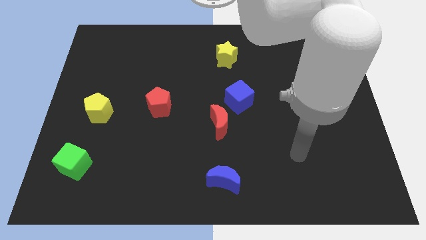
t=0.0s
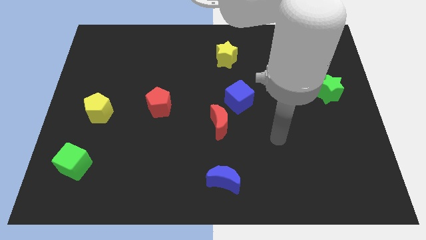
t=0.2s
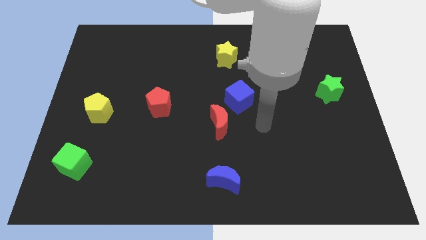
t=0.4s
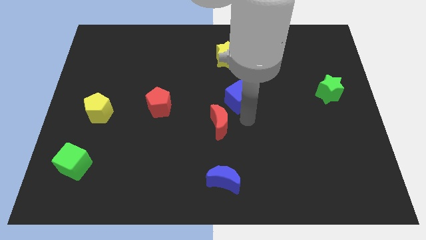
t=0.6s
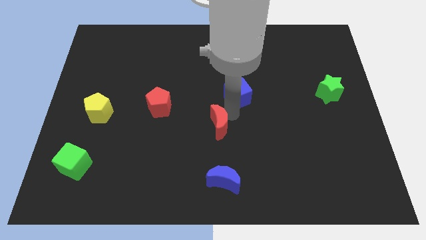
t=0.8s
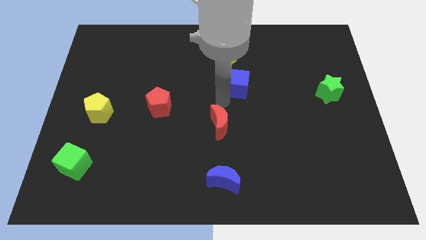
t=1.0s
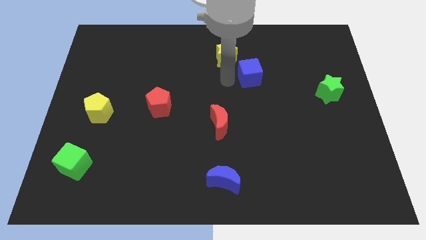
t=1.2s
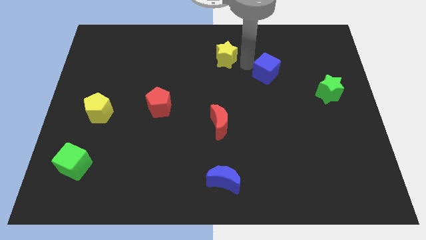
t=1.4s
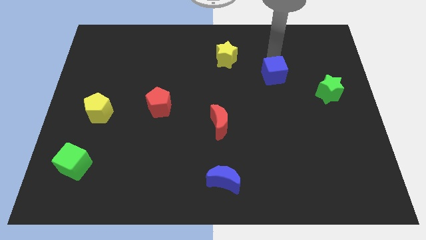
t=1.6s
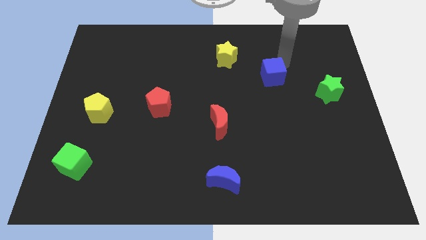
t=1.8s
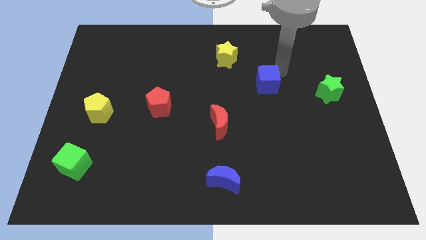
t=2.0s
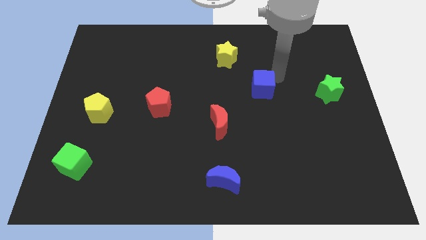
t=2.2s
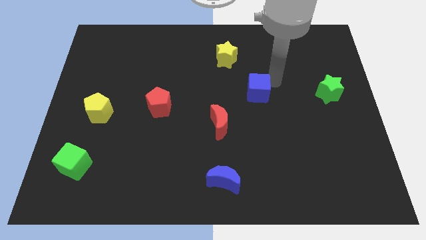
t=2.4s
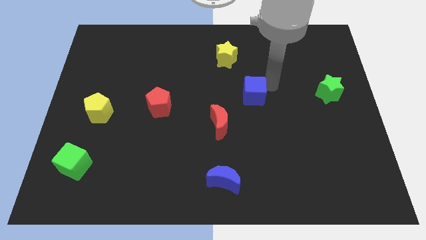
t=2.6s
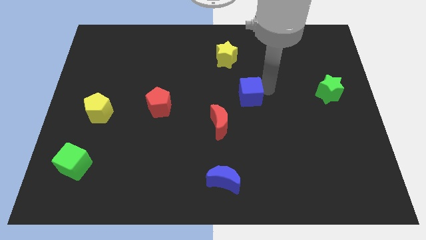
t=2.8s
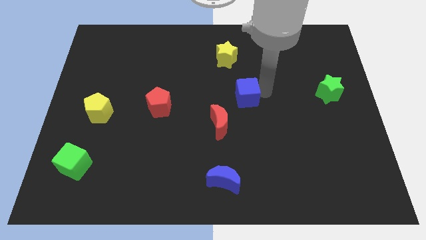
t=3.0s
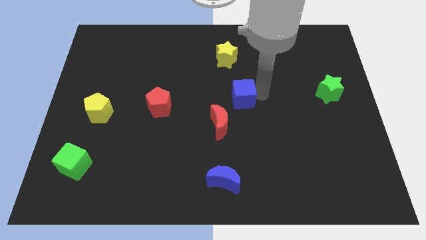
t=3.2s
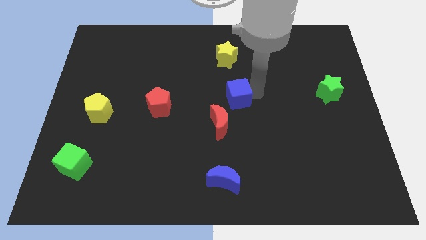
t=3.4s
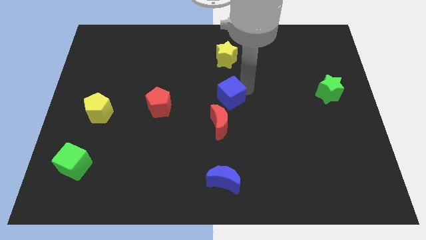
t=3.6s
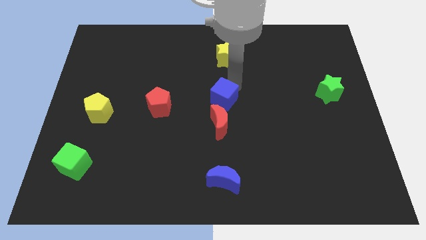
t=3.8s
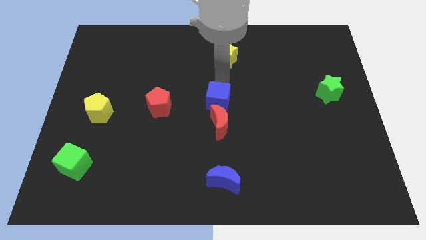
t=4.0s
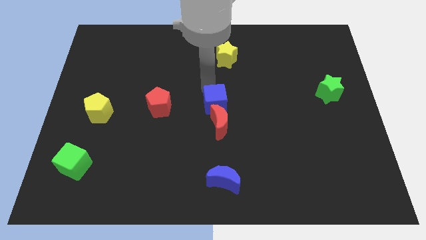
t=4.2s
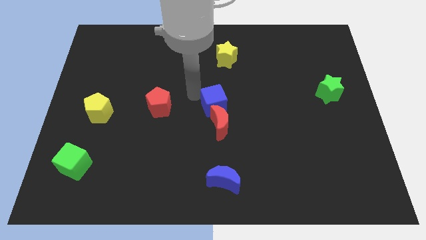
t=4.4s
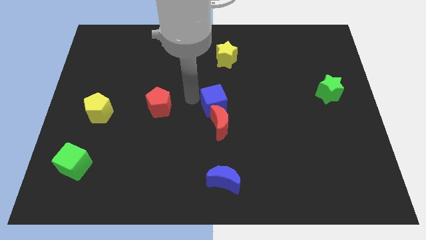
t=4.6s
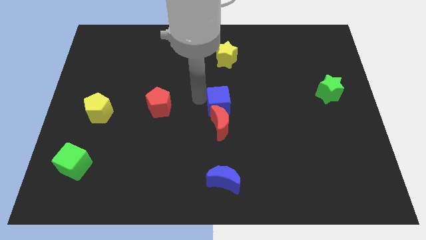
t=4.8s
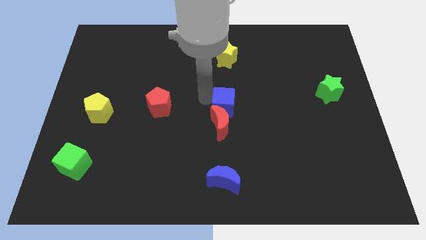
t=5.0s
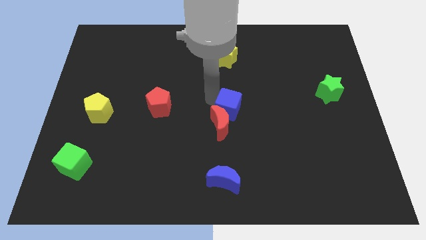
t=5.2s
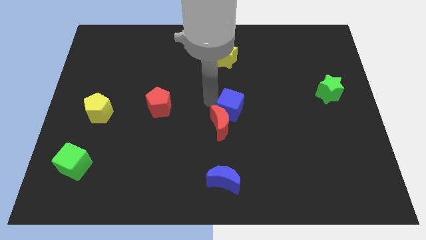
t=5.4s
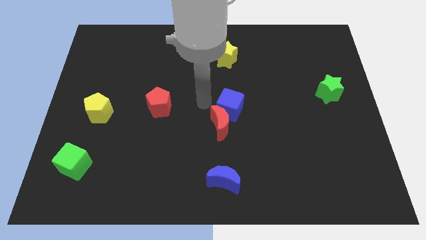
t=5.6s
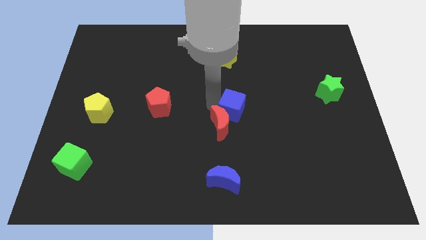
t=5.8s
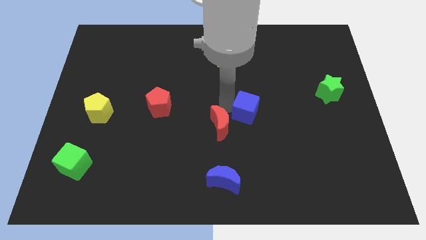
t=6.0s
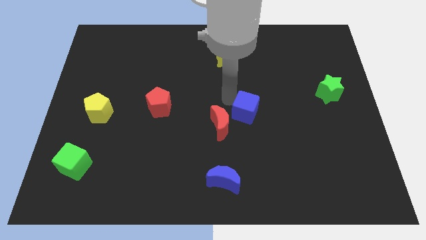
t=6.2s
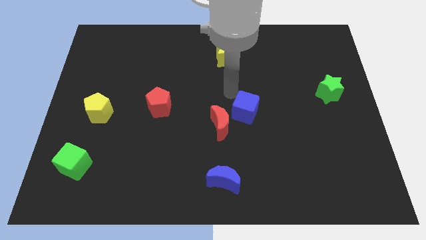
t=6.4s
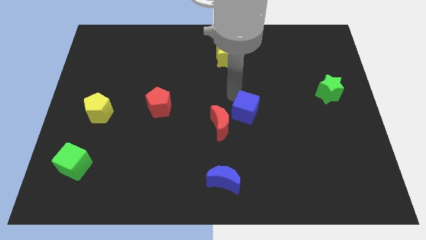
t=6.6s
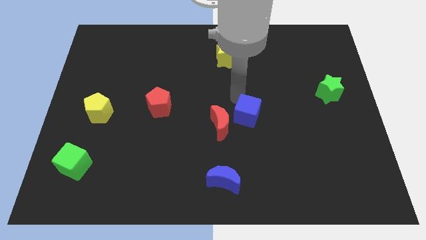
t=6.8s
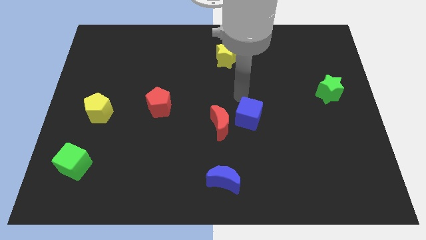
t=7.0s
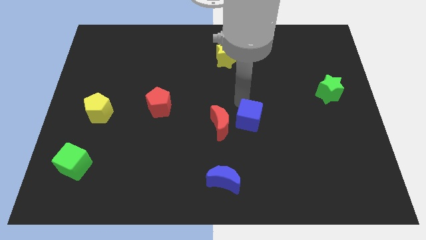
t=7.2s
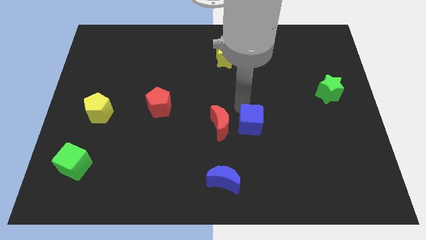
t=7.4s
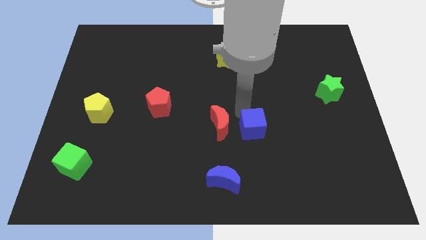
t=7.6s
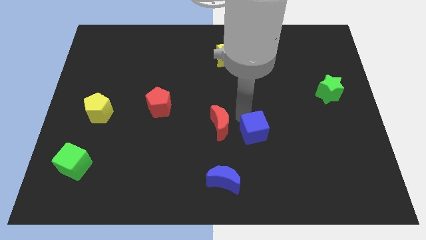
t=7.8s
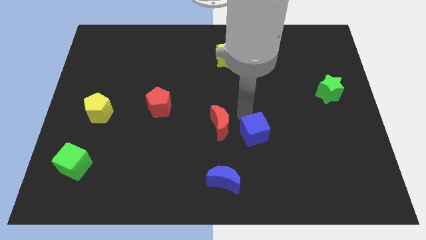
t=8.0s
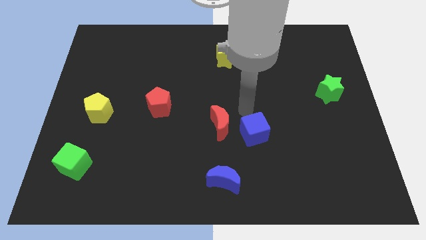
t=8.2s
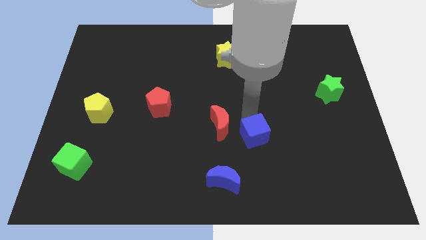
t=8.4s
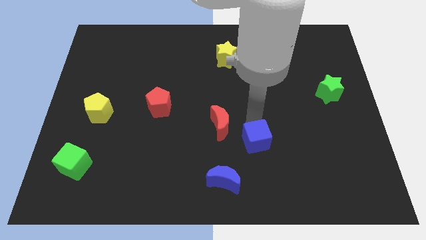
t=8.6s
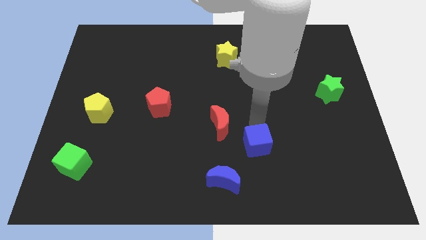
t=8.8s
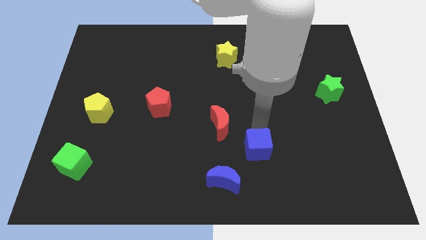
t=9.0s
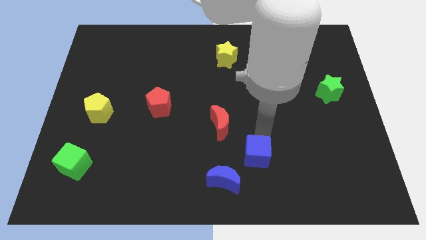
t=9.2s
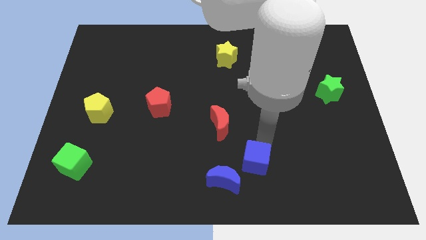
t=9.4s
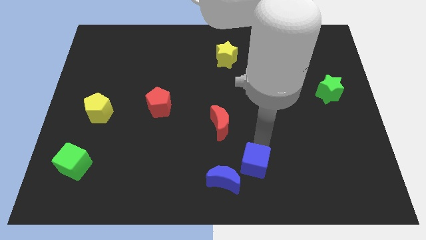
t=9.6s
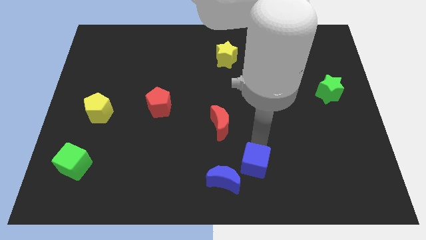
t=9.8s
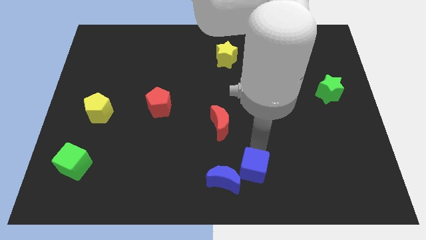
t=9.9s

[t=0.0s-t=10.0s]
put the blue cube to the bottom side

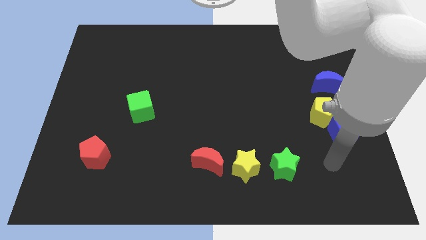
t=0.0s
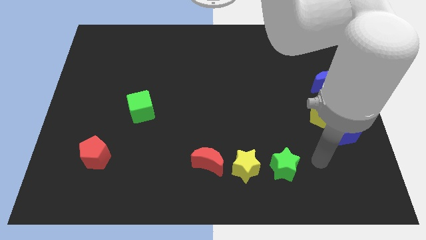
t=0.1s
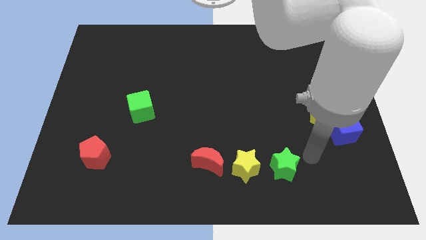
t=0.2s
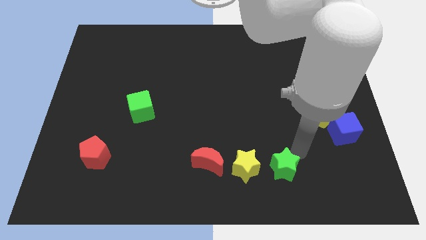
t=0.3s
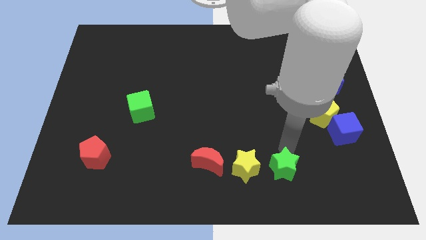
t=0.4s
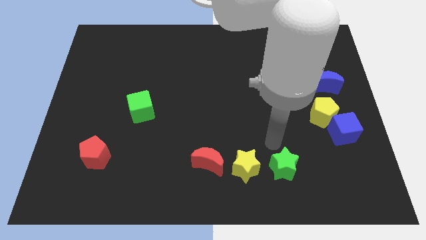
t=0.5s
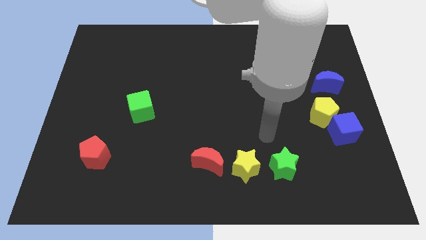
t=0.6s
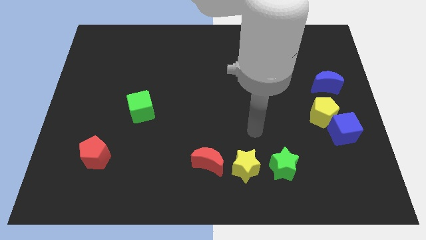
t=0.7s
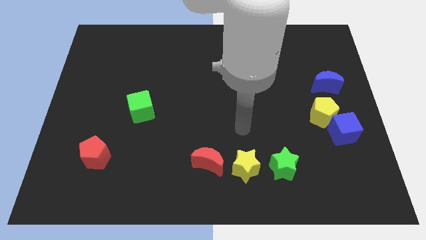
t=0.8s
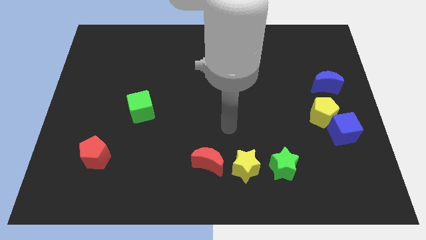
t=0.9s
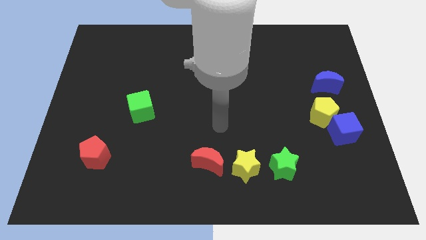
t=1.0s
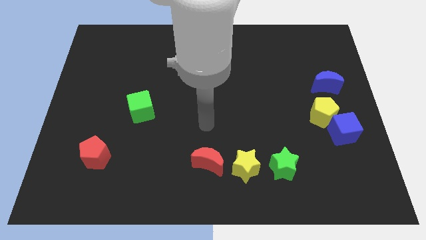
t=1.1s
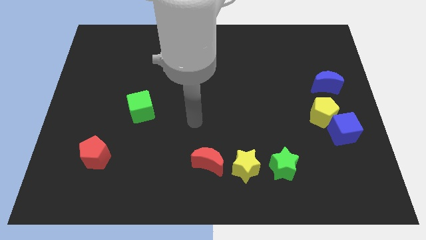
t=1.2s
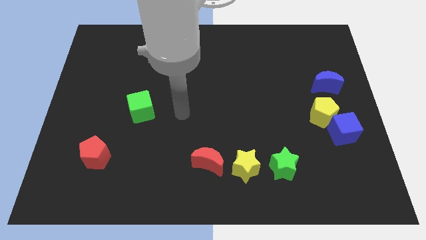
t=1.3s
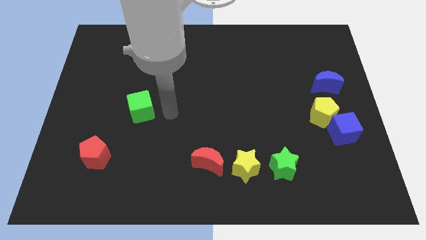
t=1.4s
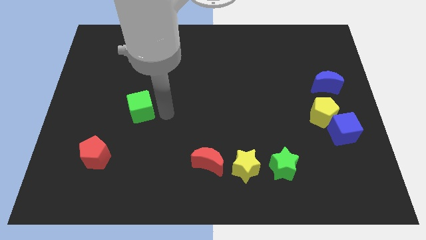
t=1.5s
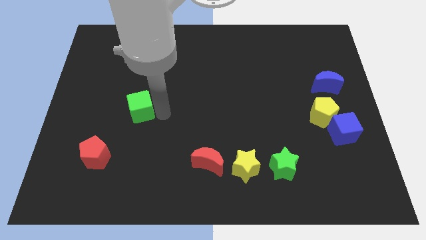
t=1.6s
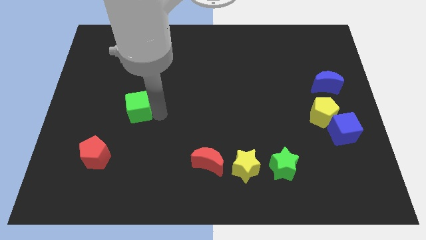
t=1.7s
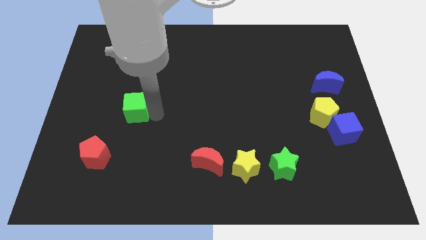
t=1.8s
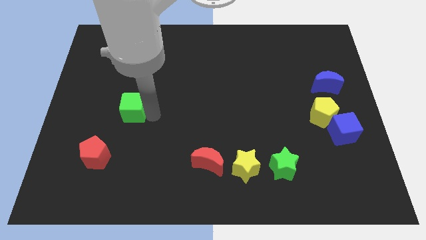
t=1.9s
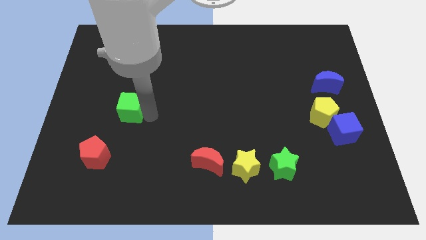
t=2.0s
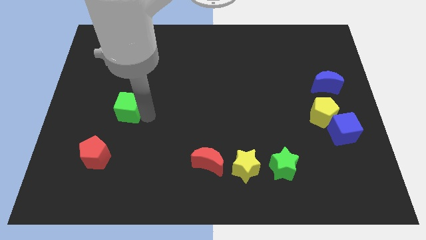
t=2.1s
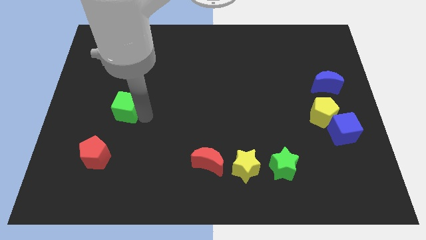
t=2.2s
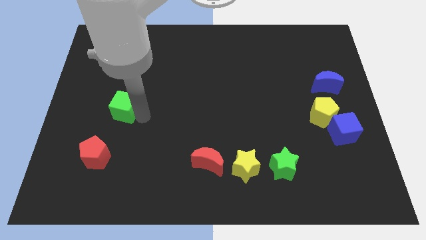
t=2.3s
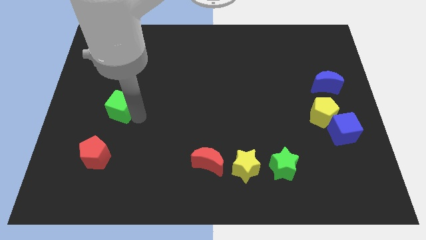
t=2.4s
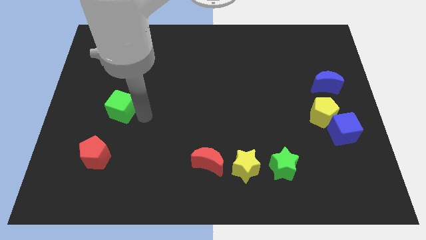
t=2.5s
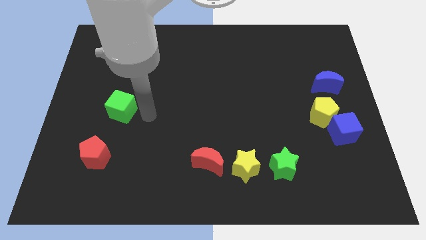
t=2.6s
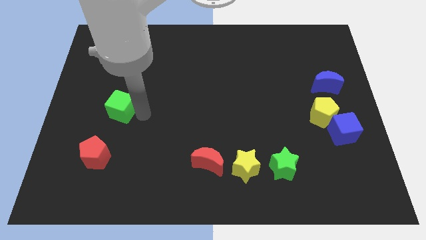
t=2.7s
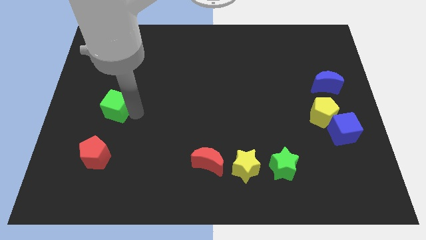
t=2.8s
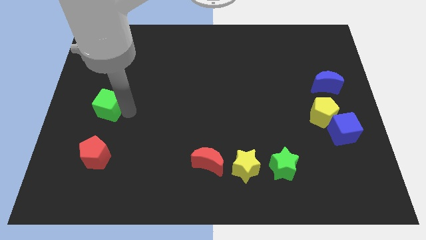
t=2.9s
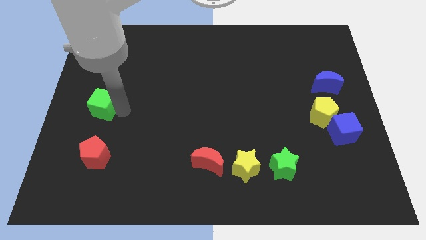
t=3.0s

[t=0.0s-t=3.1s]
put the green cube to the center left
